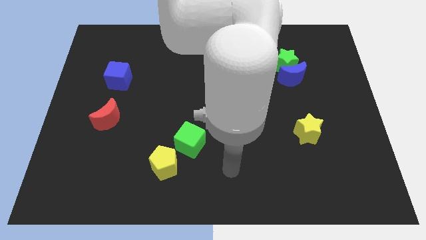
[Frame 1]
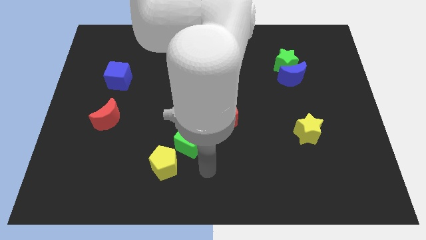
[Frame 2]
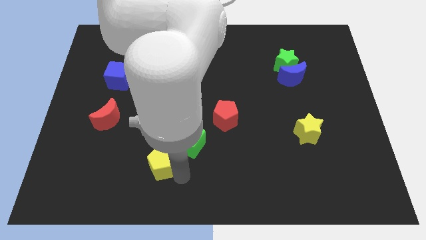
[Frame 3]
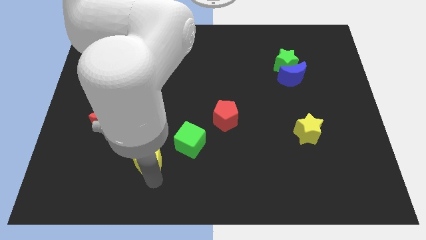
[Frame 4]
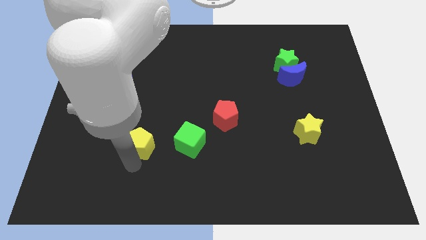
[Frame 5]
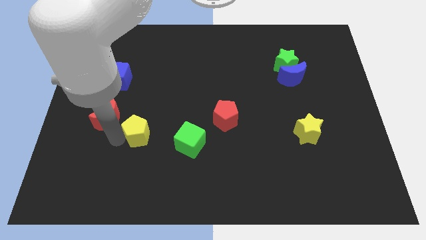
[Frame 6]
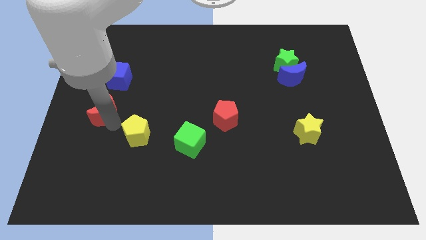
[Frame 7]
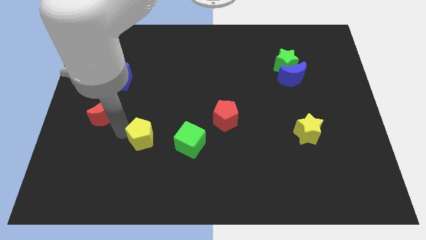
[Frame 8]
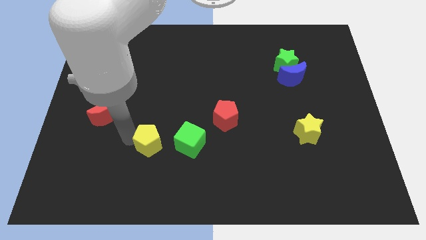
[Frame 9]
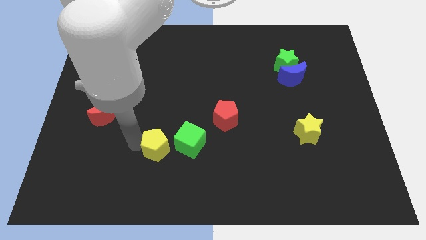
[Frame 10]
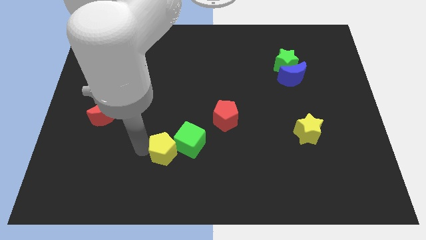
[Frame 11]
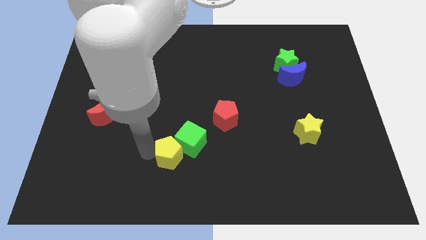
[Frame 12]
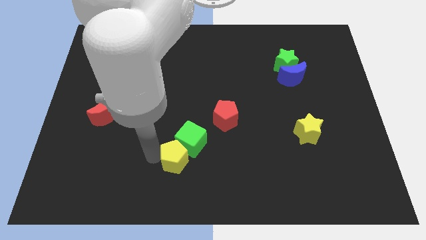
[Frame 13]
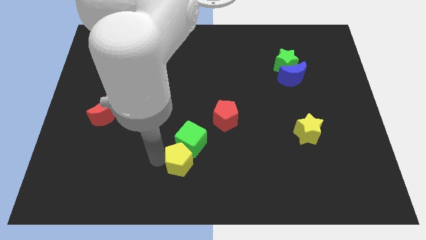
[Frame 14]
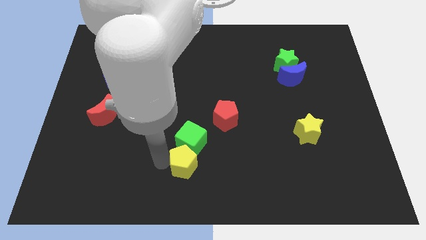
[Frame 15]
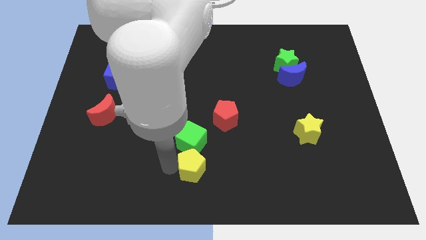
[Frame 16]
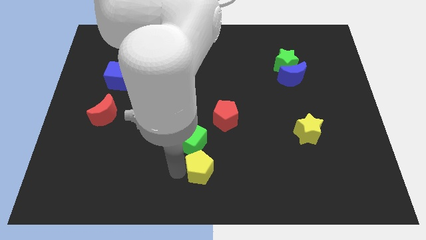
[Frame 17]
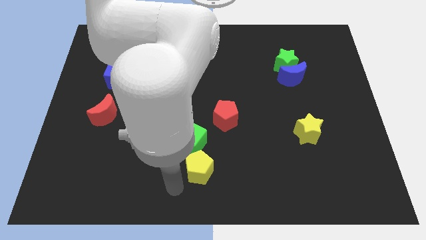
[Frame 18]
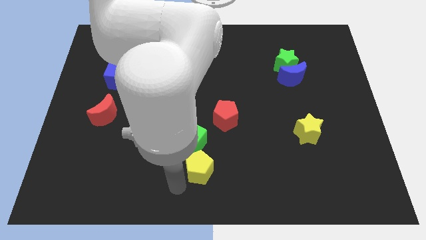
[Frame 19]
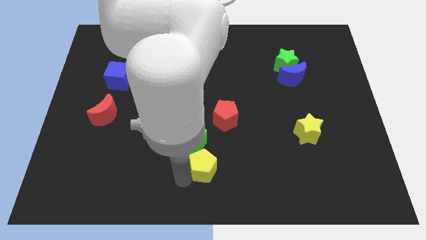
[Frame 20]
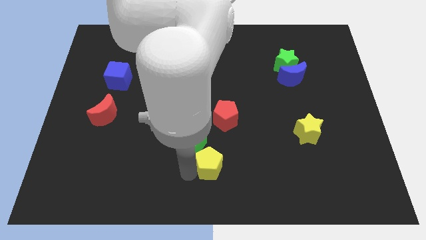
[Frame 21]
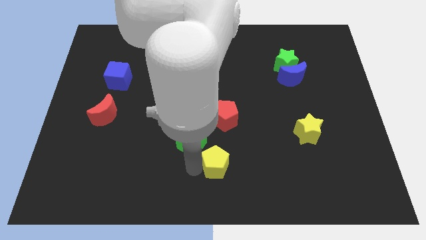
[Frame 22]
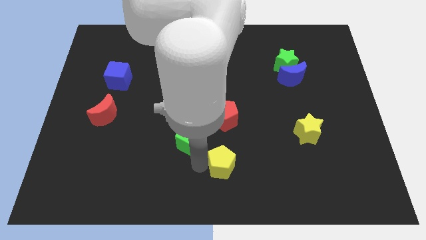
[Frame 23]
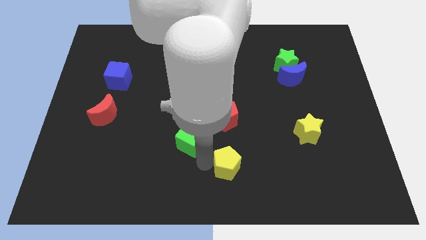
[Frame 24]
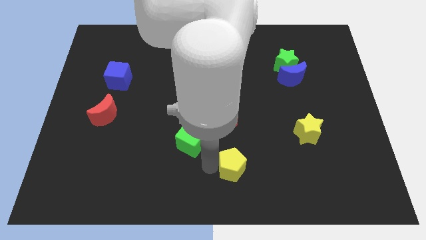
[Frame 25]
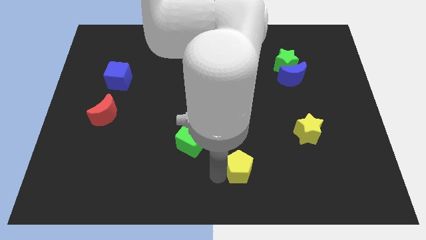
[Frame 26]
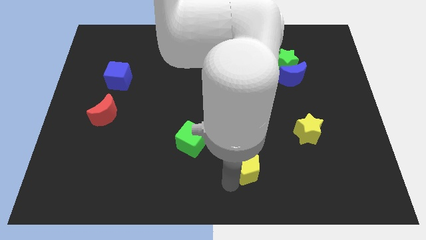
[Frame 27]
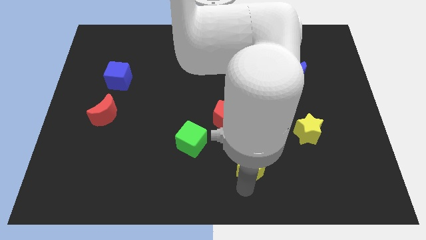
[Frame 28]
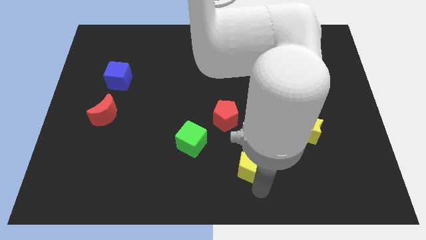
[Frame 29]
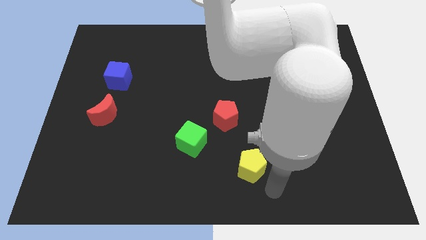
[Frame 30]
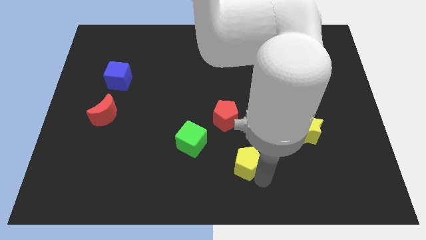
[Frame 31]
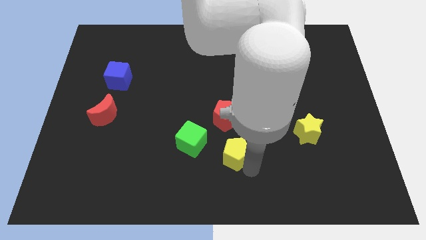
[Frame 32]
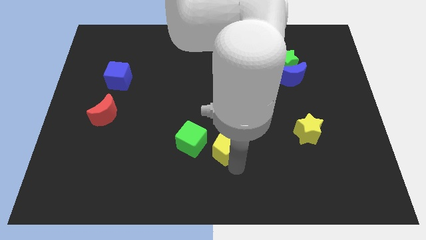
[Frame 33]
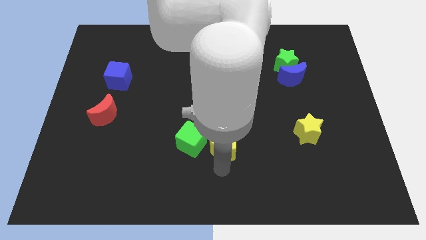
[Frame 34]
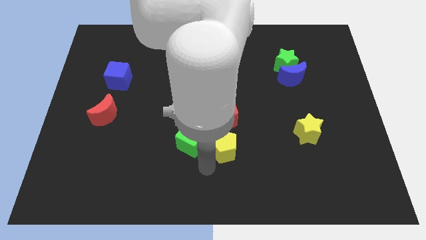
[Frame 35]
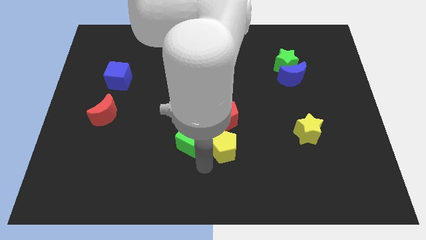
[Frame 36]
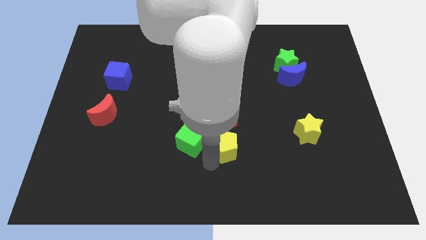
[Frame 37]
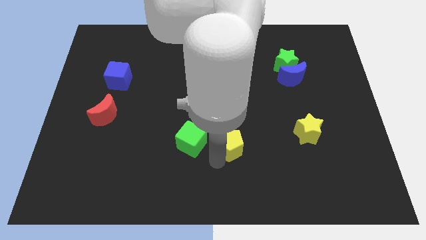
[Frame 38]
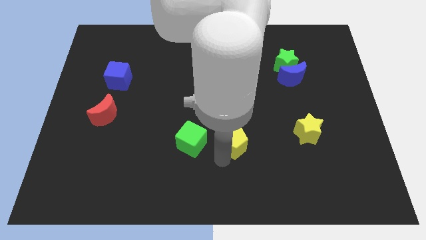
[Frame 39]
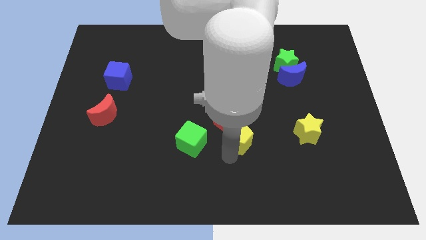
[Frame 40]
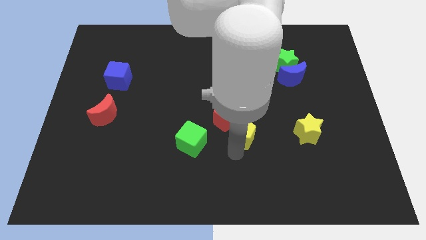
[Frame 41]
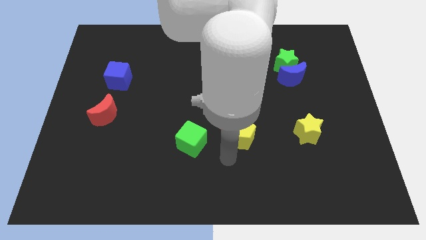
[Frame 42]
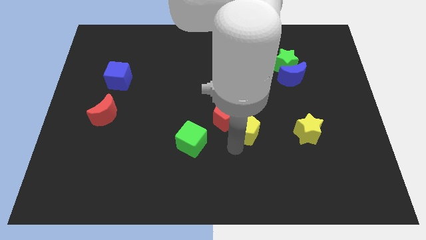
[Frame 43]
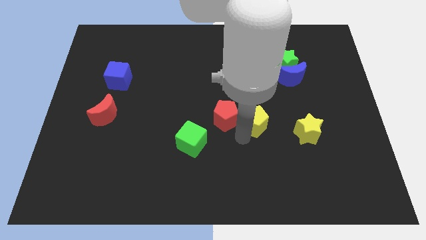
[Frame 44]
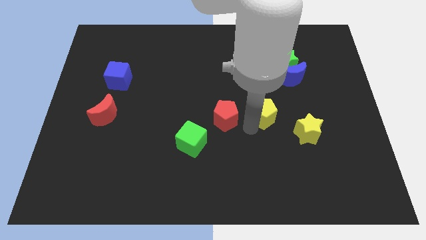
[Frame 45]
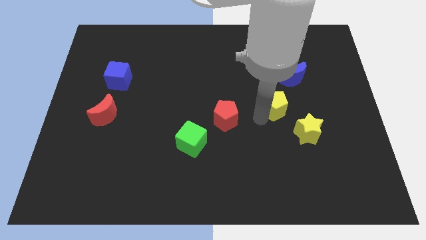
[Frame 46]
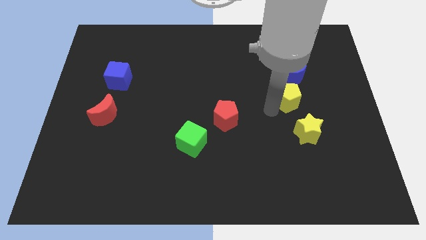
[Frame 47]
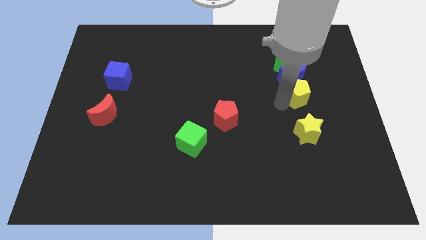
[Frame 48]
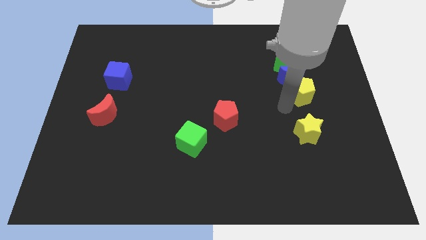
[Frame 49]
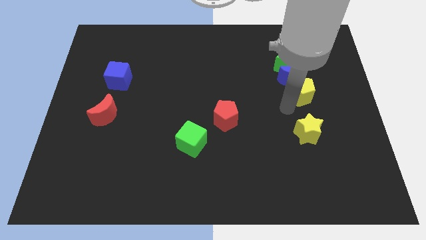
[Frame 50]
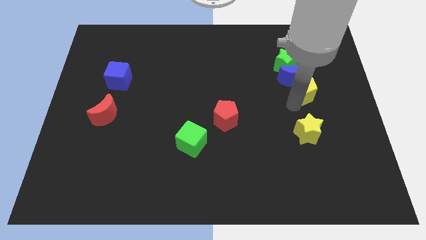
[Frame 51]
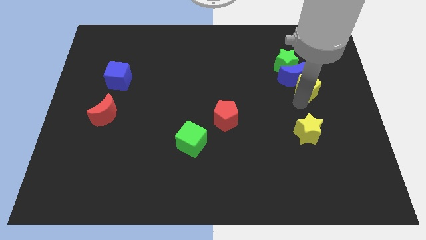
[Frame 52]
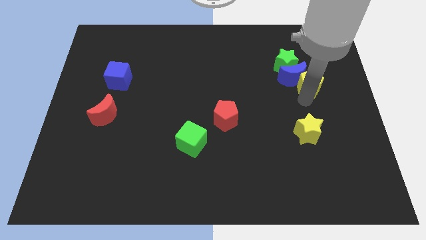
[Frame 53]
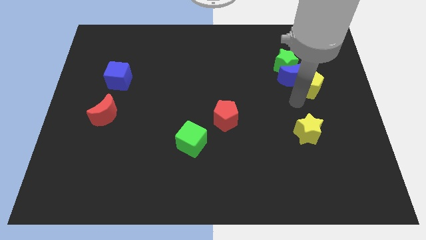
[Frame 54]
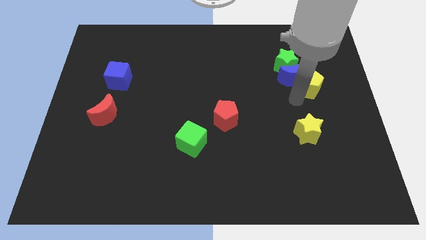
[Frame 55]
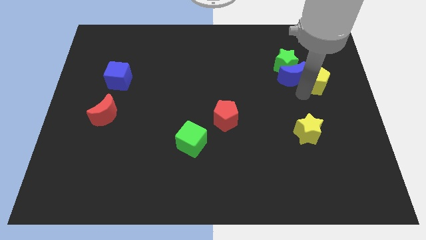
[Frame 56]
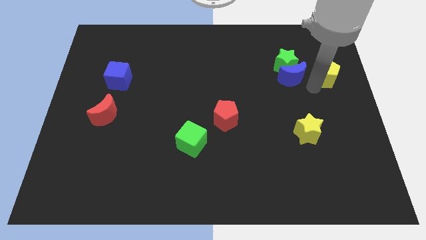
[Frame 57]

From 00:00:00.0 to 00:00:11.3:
slide the yellow pentagon right of the green star

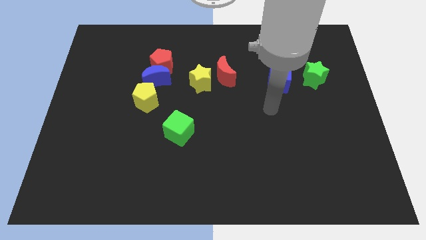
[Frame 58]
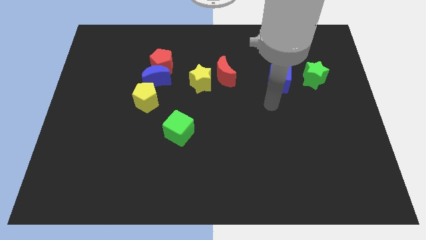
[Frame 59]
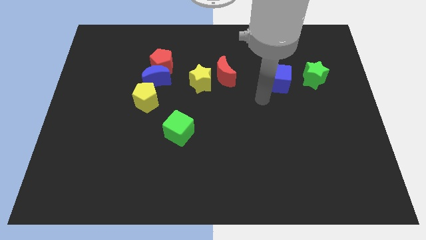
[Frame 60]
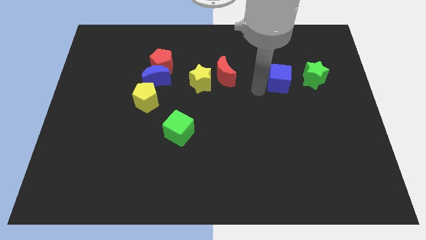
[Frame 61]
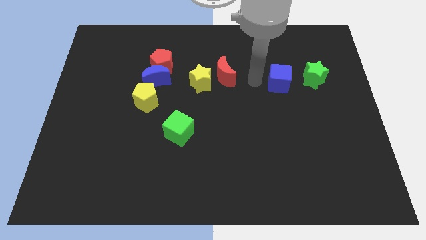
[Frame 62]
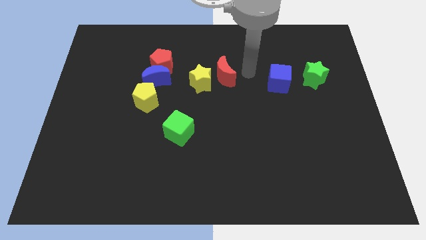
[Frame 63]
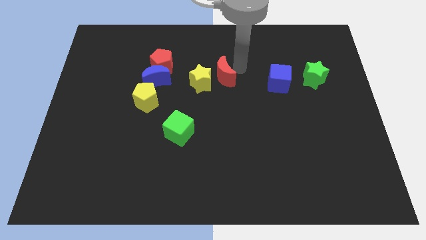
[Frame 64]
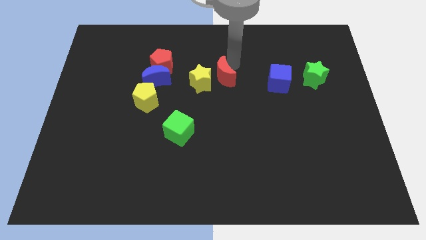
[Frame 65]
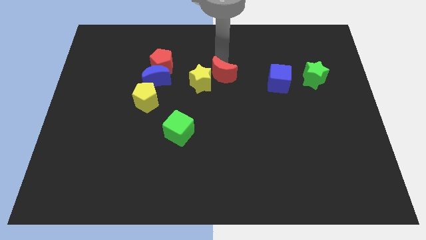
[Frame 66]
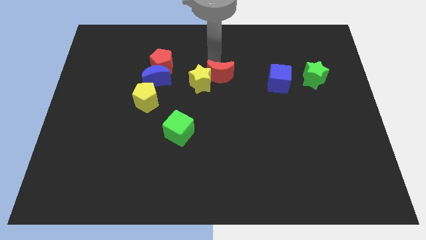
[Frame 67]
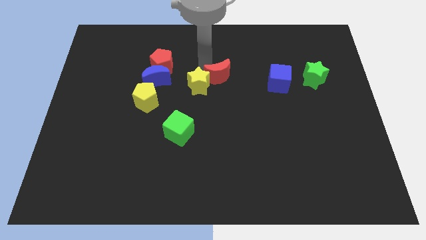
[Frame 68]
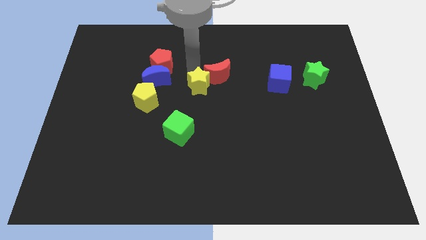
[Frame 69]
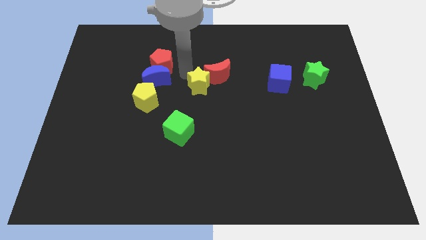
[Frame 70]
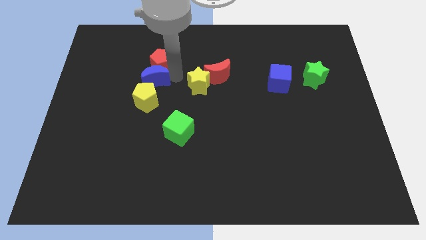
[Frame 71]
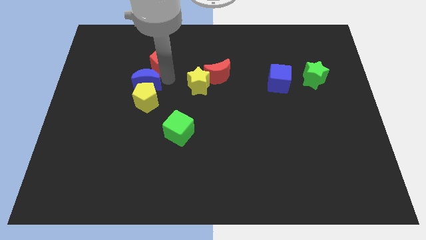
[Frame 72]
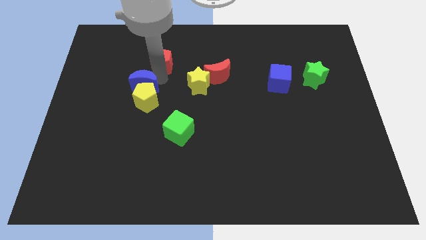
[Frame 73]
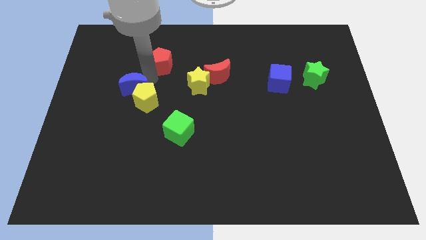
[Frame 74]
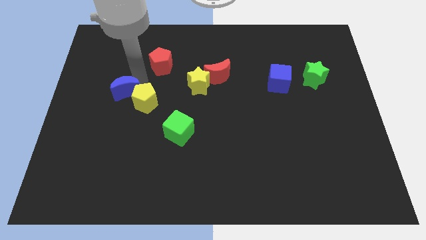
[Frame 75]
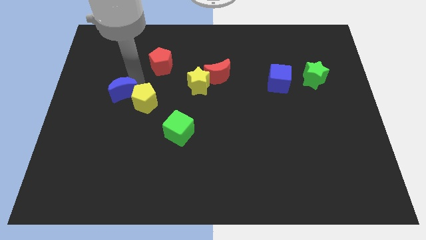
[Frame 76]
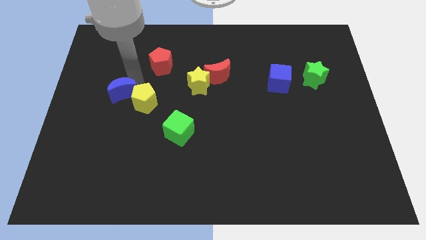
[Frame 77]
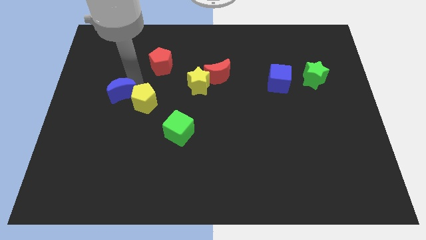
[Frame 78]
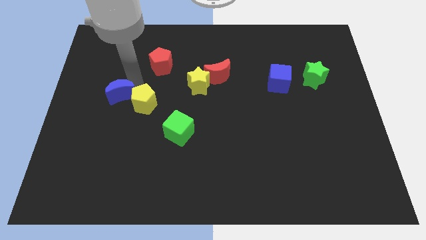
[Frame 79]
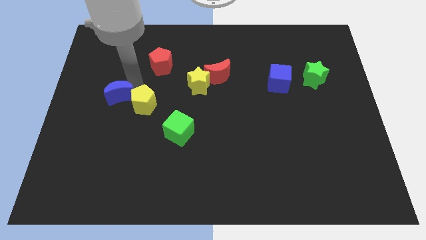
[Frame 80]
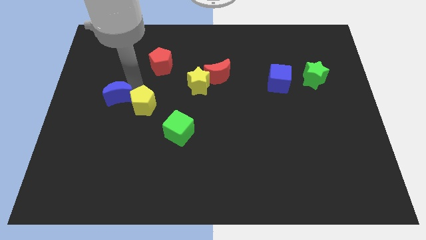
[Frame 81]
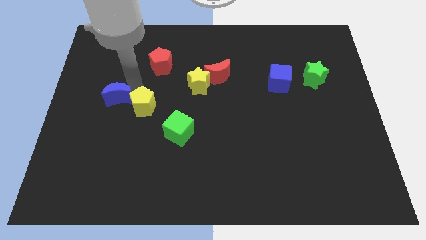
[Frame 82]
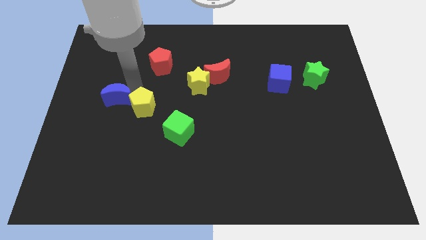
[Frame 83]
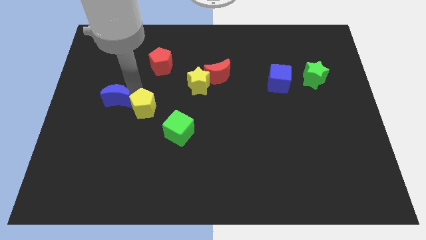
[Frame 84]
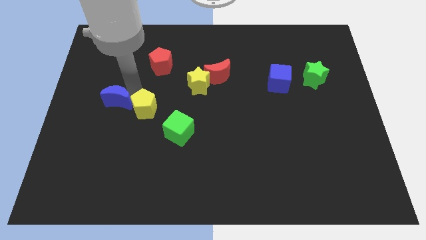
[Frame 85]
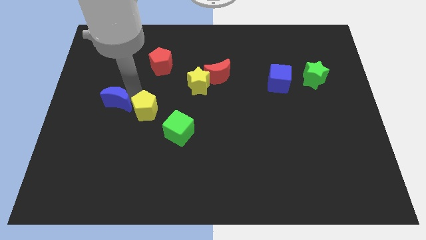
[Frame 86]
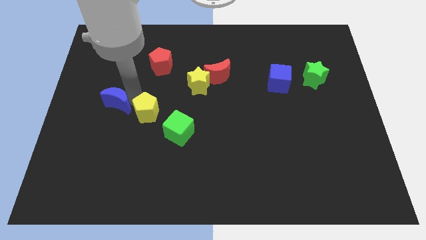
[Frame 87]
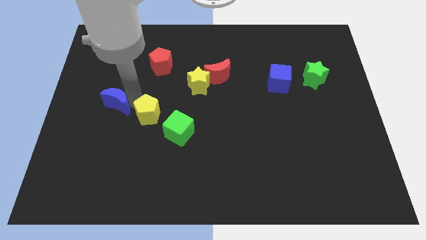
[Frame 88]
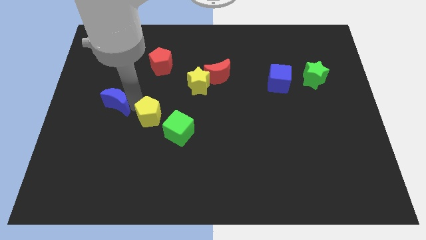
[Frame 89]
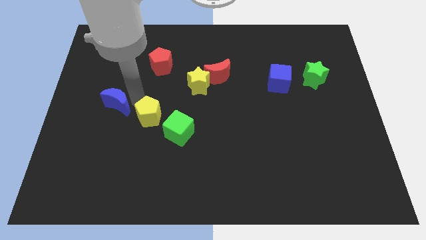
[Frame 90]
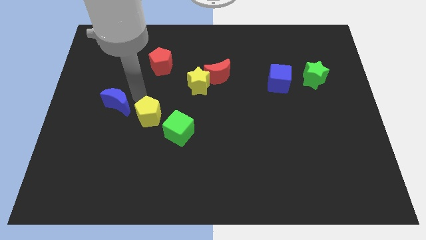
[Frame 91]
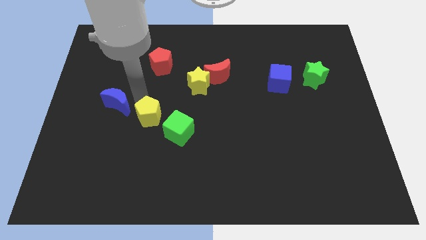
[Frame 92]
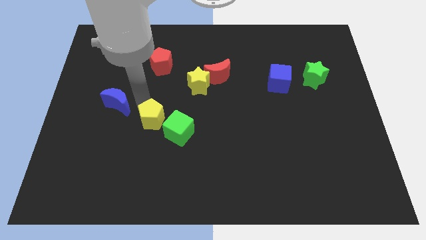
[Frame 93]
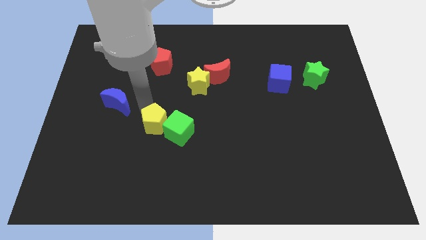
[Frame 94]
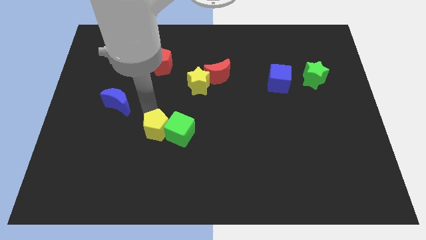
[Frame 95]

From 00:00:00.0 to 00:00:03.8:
push the yellow pentagon diagonally down and to the left of the green cube
